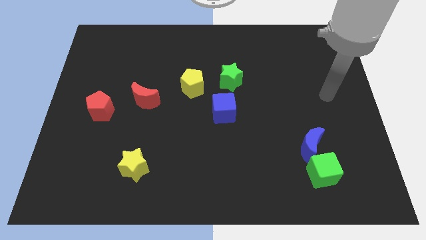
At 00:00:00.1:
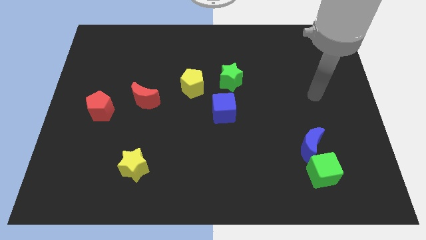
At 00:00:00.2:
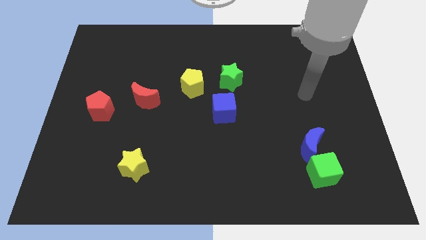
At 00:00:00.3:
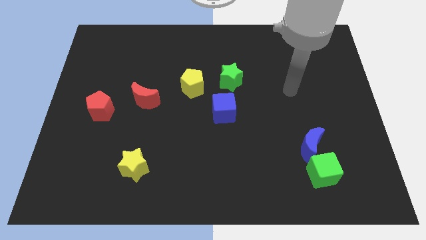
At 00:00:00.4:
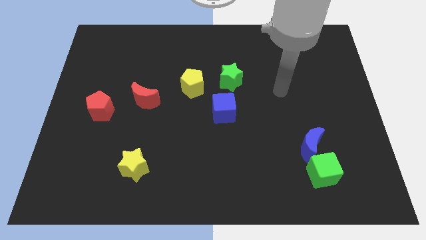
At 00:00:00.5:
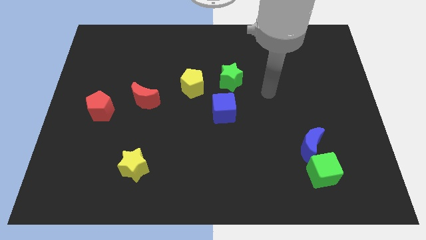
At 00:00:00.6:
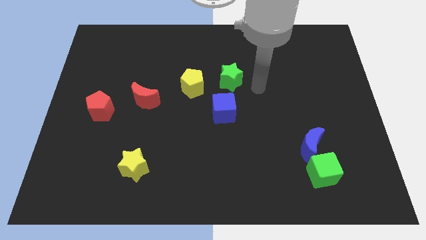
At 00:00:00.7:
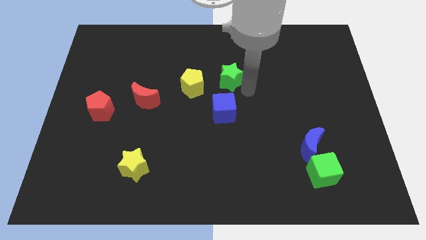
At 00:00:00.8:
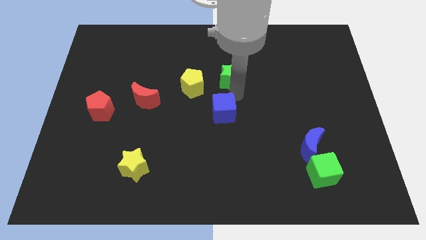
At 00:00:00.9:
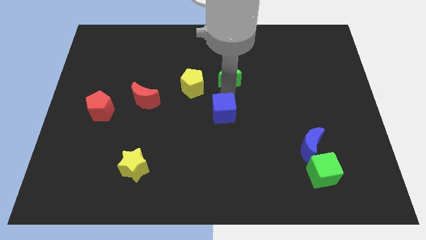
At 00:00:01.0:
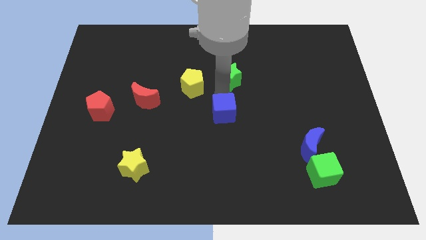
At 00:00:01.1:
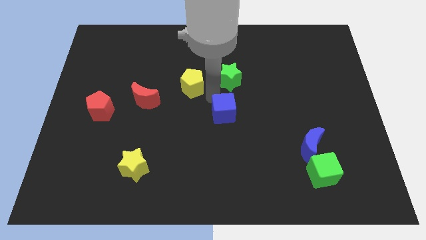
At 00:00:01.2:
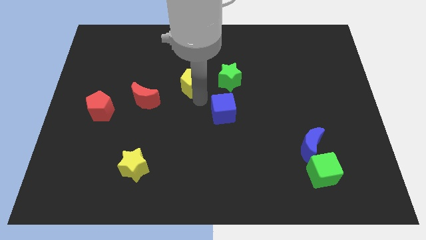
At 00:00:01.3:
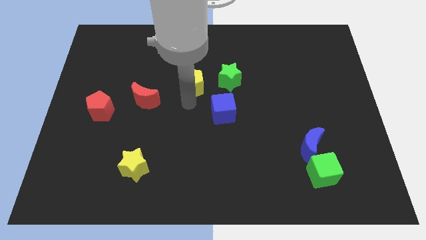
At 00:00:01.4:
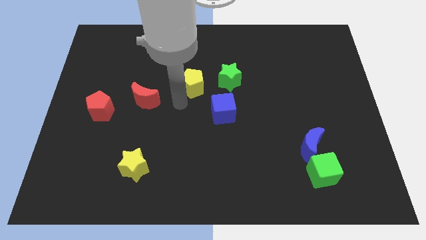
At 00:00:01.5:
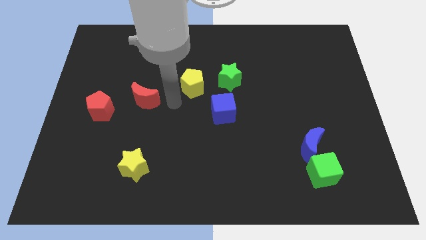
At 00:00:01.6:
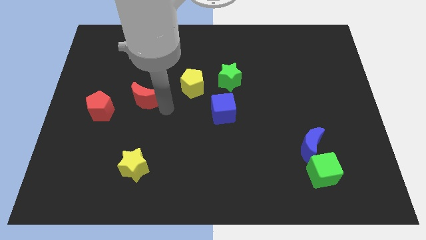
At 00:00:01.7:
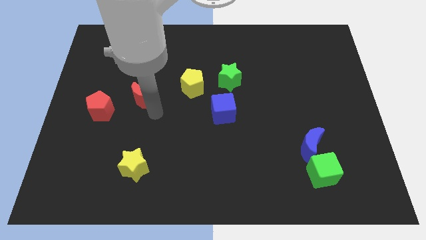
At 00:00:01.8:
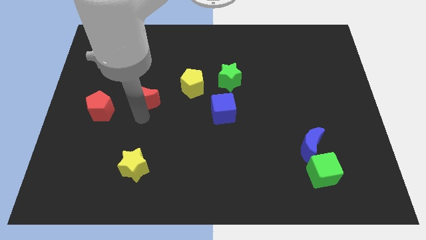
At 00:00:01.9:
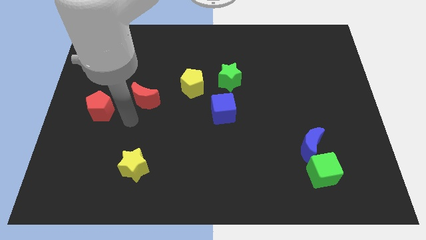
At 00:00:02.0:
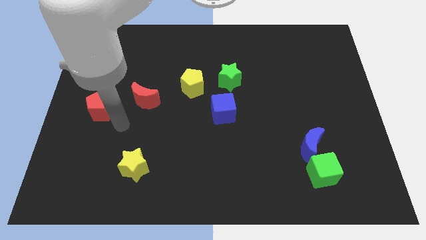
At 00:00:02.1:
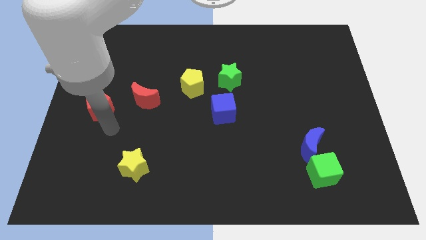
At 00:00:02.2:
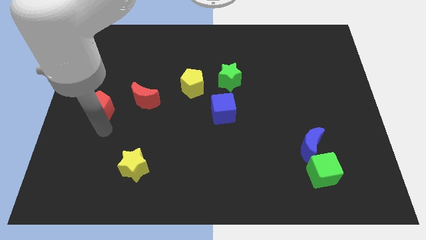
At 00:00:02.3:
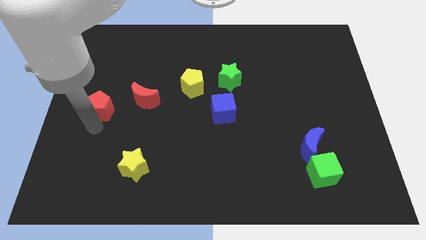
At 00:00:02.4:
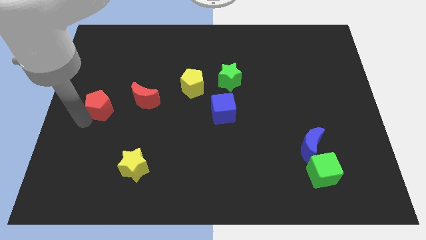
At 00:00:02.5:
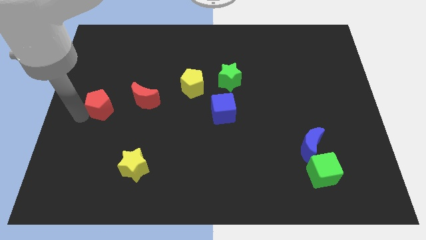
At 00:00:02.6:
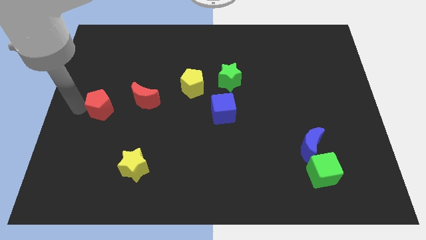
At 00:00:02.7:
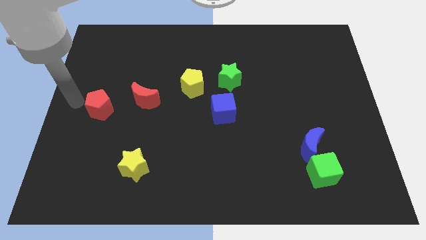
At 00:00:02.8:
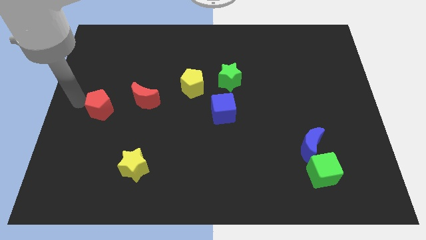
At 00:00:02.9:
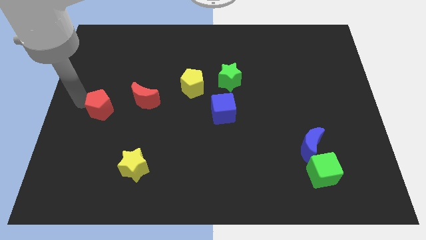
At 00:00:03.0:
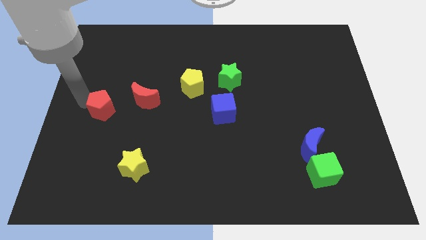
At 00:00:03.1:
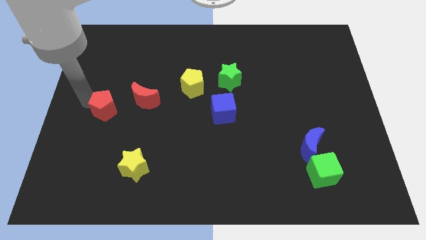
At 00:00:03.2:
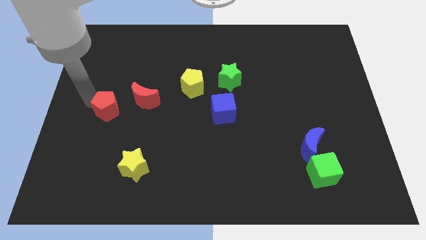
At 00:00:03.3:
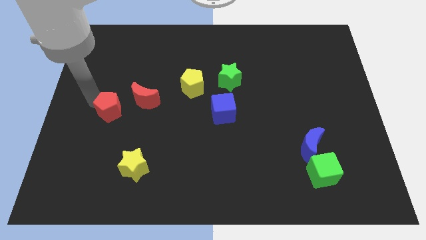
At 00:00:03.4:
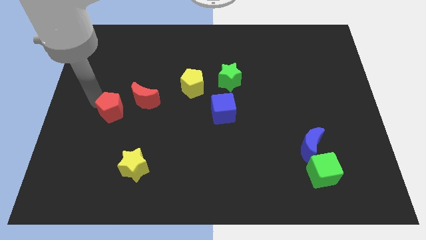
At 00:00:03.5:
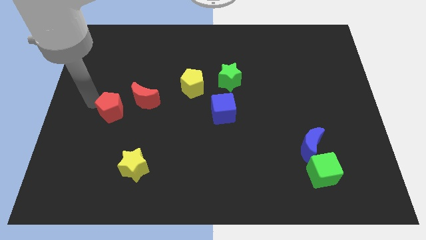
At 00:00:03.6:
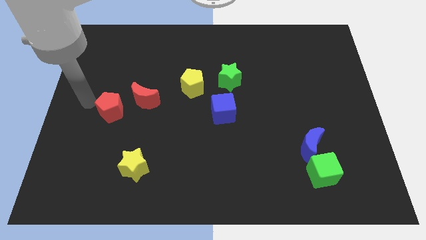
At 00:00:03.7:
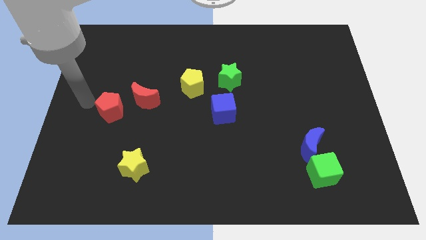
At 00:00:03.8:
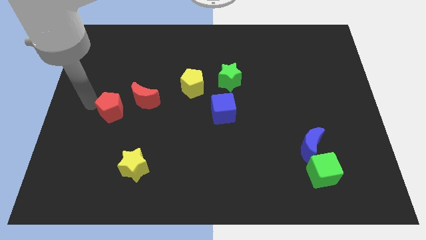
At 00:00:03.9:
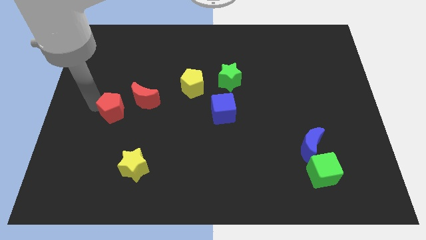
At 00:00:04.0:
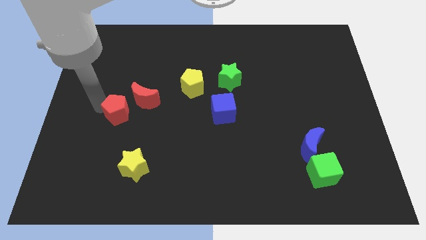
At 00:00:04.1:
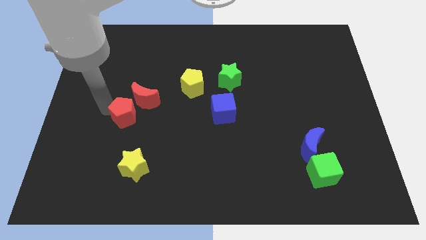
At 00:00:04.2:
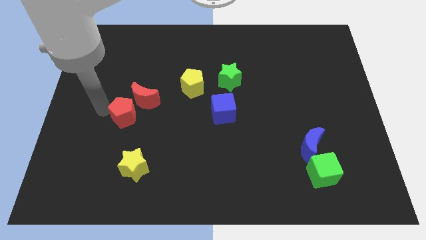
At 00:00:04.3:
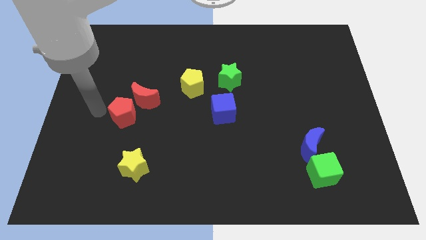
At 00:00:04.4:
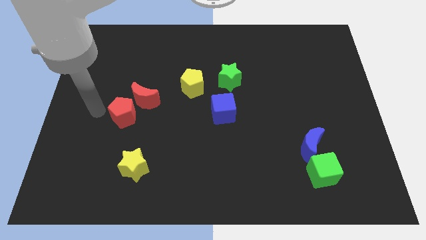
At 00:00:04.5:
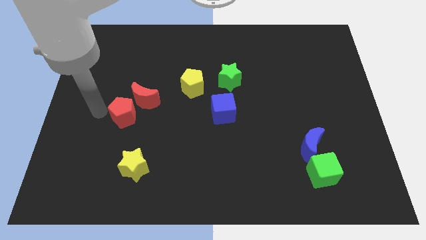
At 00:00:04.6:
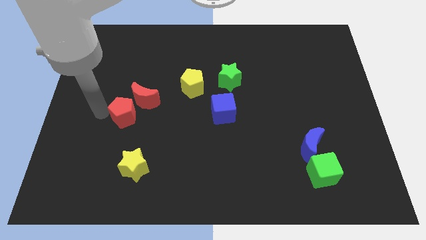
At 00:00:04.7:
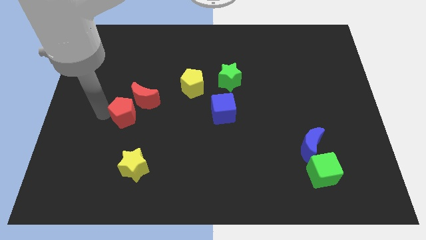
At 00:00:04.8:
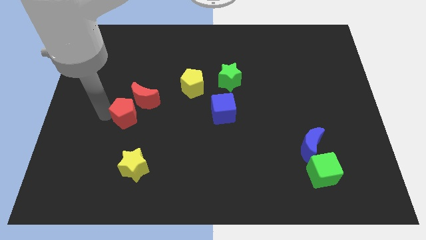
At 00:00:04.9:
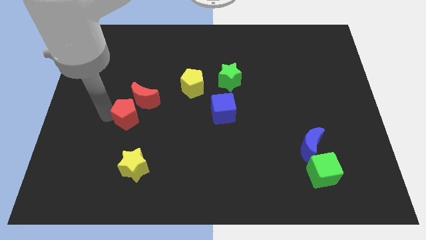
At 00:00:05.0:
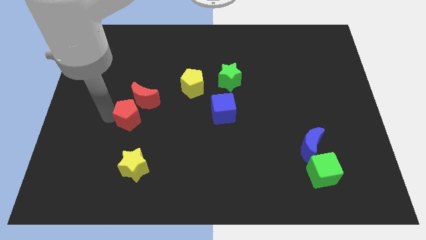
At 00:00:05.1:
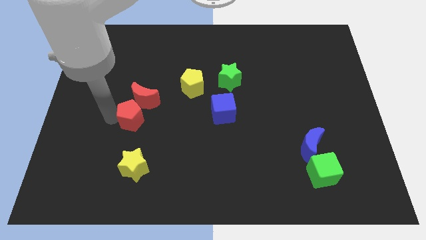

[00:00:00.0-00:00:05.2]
push the red pentagon a little bit to the right

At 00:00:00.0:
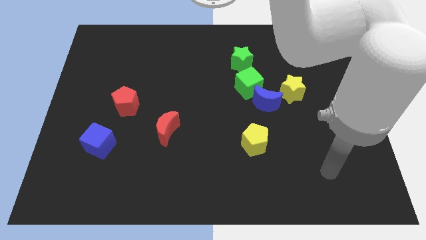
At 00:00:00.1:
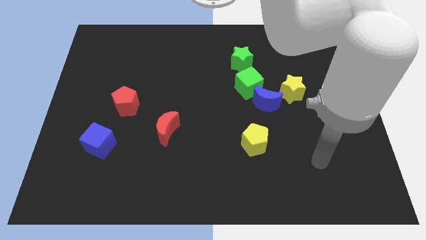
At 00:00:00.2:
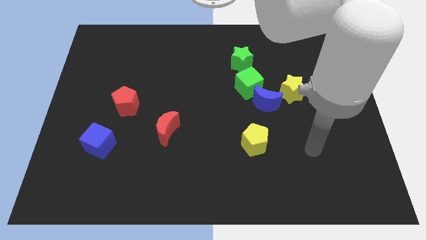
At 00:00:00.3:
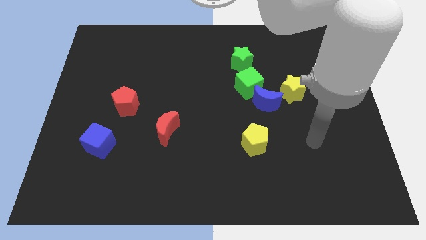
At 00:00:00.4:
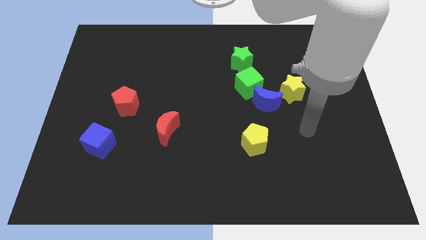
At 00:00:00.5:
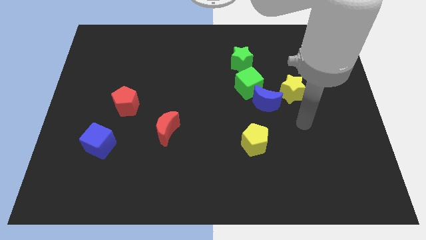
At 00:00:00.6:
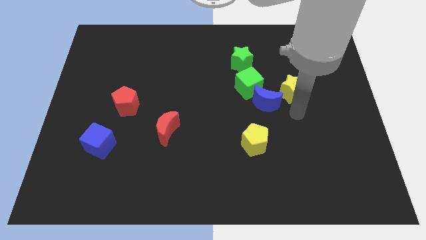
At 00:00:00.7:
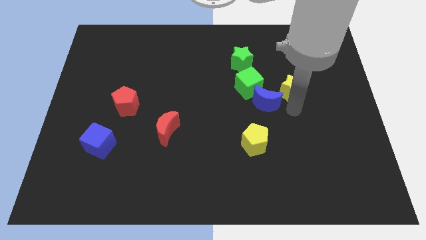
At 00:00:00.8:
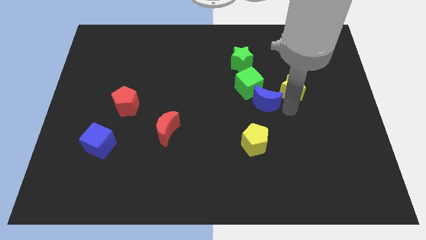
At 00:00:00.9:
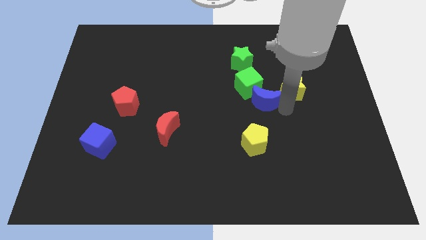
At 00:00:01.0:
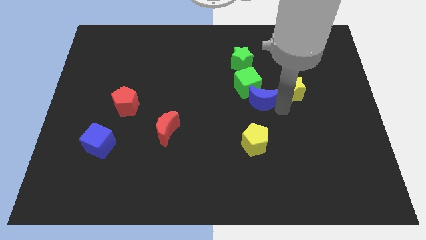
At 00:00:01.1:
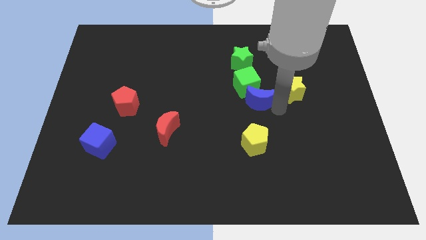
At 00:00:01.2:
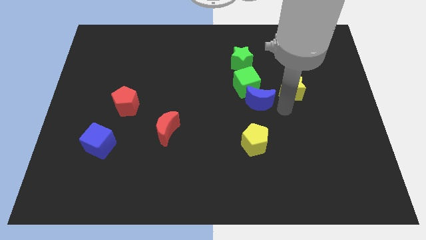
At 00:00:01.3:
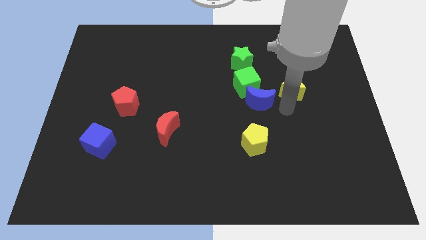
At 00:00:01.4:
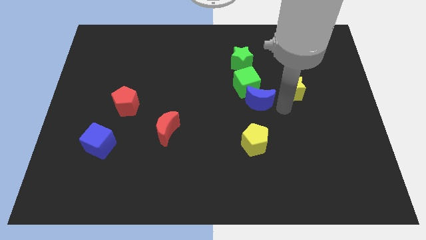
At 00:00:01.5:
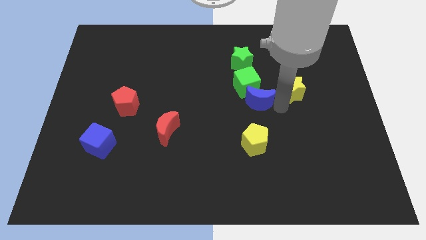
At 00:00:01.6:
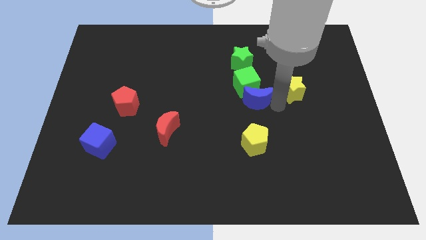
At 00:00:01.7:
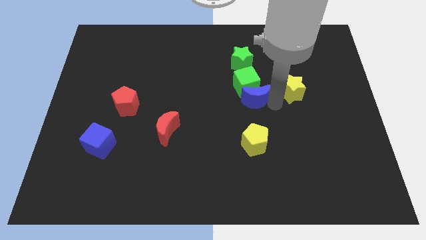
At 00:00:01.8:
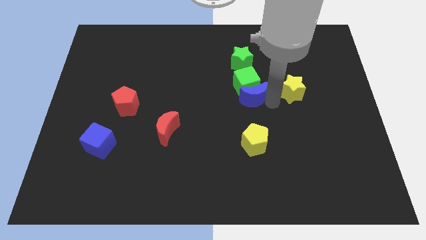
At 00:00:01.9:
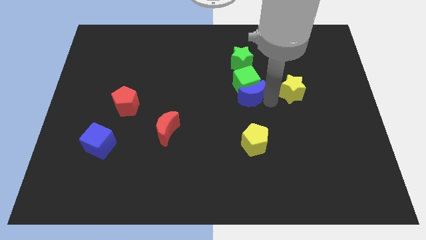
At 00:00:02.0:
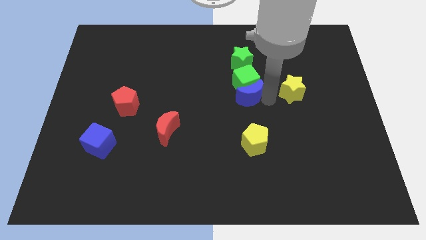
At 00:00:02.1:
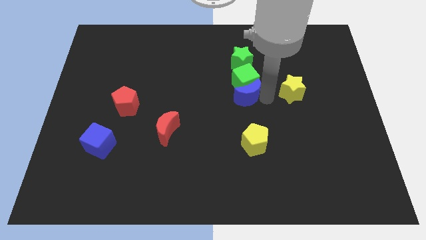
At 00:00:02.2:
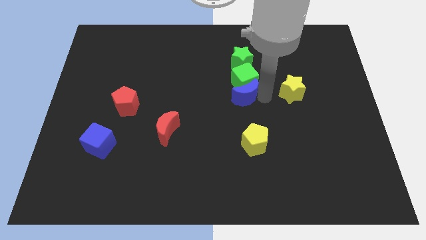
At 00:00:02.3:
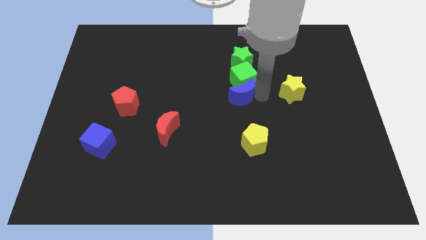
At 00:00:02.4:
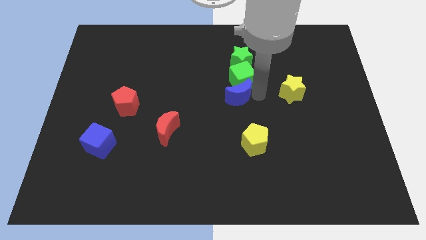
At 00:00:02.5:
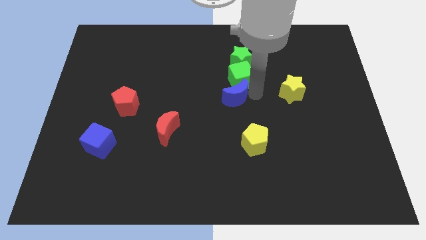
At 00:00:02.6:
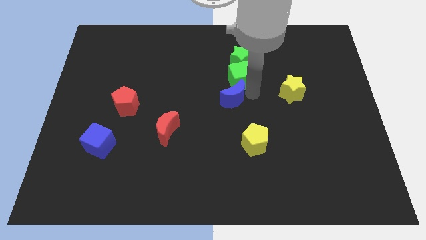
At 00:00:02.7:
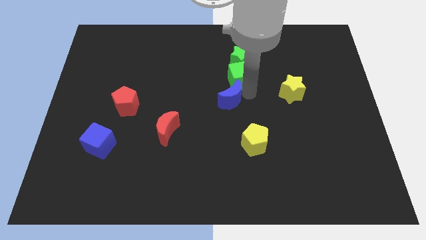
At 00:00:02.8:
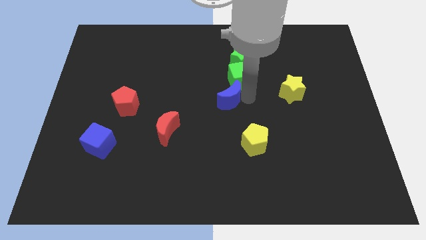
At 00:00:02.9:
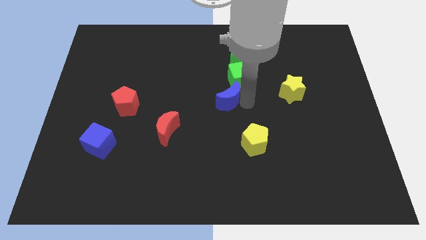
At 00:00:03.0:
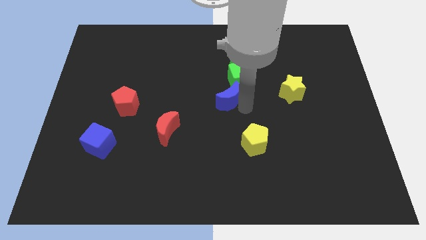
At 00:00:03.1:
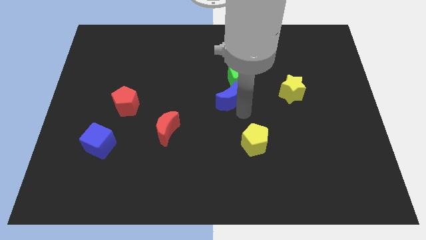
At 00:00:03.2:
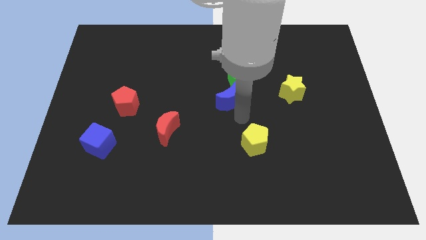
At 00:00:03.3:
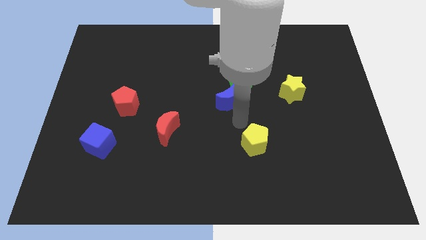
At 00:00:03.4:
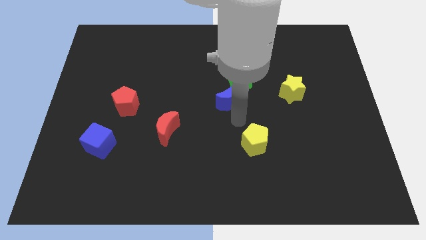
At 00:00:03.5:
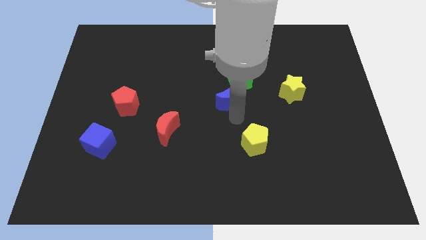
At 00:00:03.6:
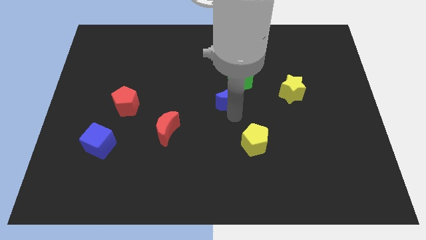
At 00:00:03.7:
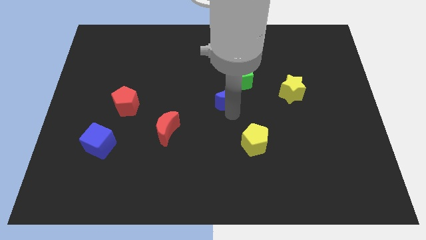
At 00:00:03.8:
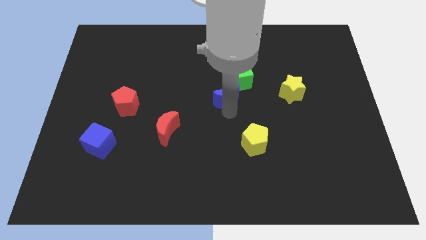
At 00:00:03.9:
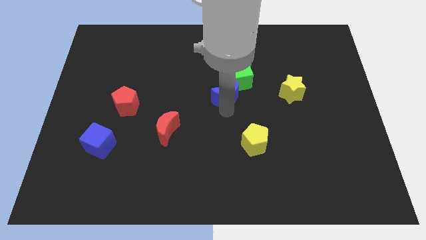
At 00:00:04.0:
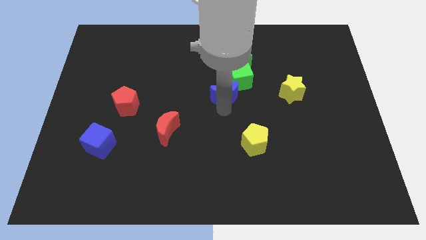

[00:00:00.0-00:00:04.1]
move the blue moon diagonally up and to the left a bit
